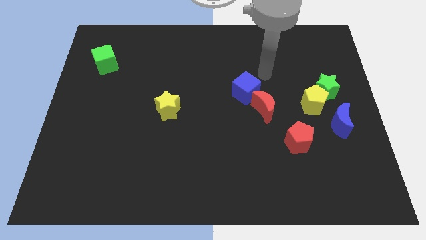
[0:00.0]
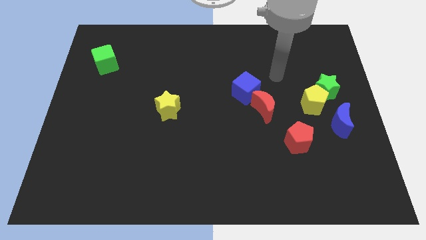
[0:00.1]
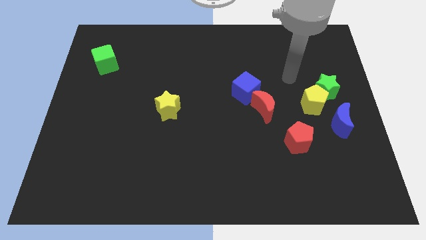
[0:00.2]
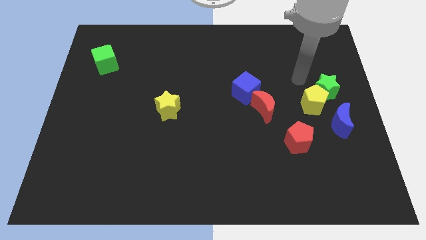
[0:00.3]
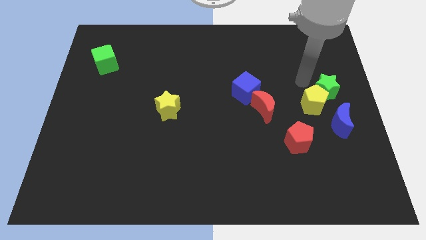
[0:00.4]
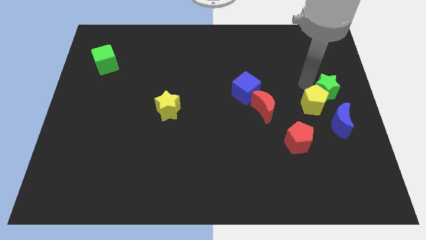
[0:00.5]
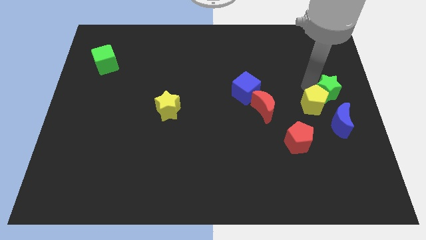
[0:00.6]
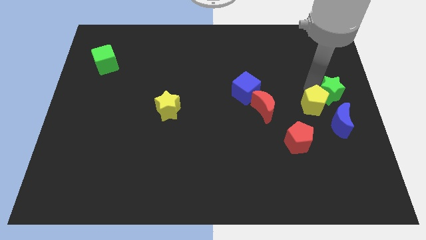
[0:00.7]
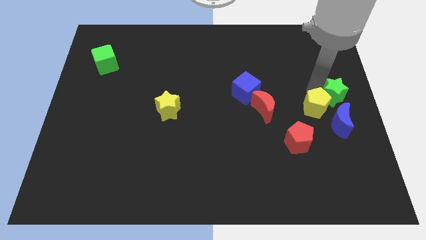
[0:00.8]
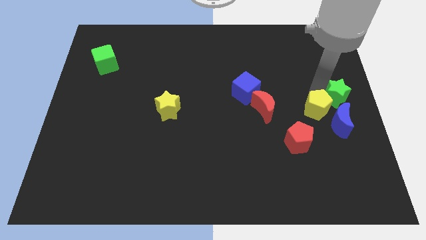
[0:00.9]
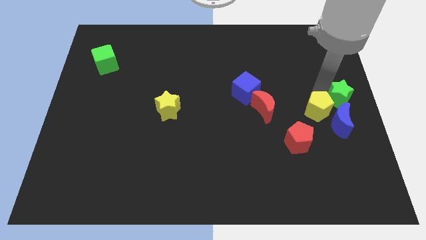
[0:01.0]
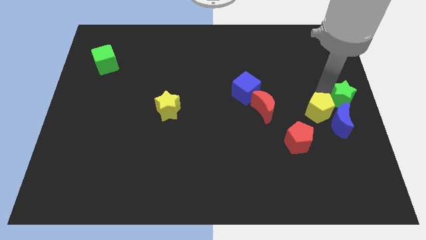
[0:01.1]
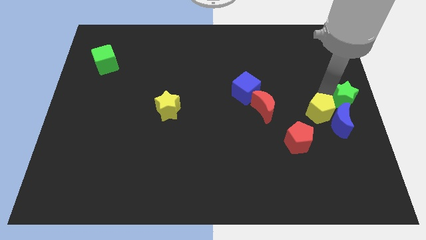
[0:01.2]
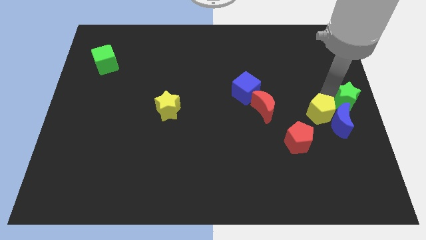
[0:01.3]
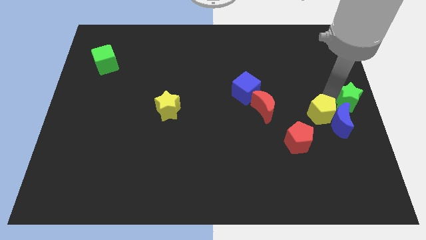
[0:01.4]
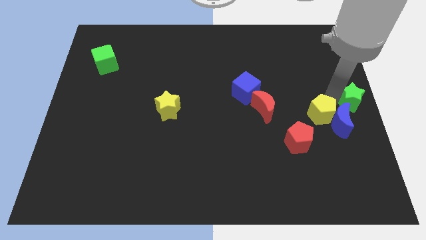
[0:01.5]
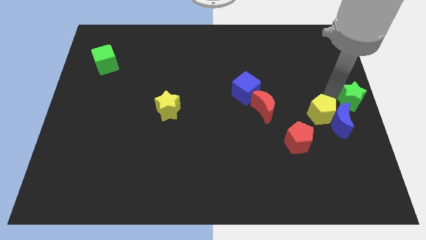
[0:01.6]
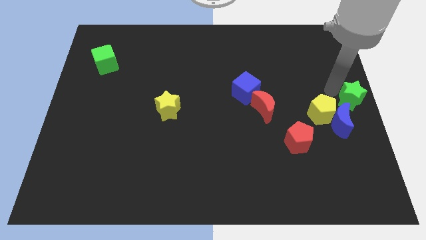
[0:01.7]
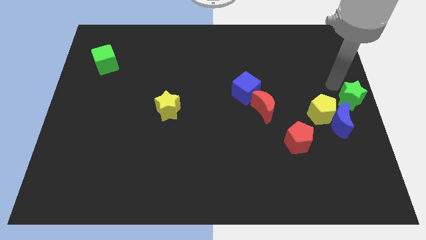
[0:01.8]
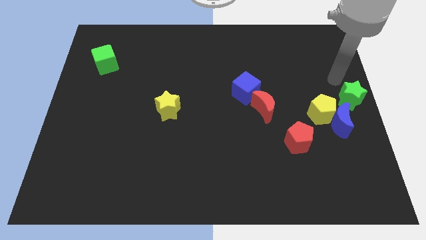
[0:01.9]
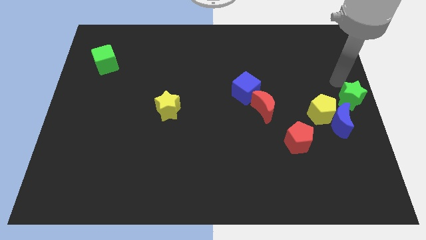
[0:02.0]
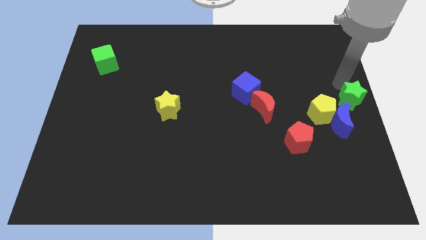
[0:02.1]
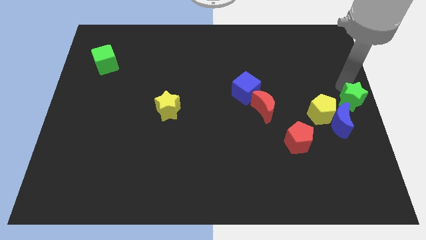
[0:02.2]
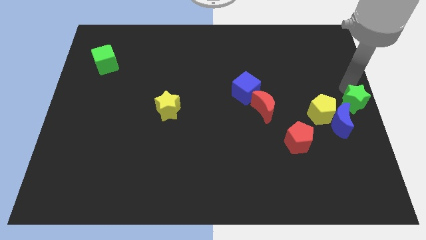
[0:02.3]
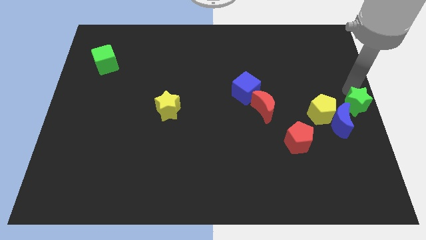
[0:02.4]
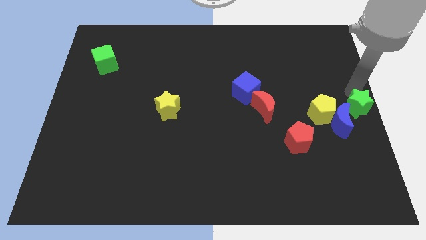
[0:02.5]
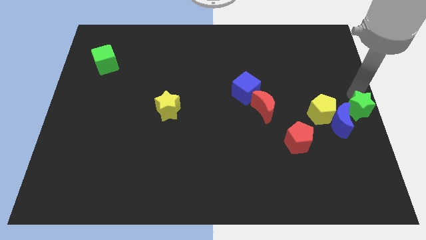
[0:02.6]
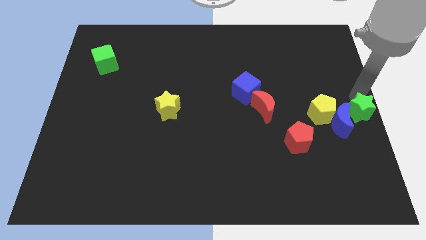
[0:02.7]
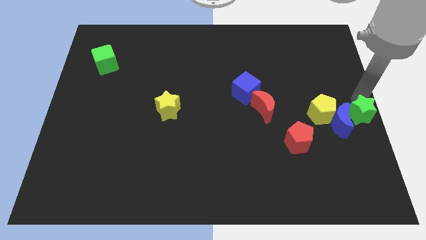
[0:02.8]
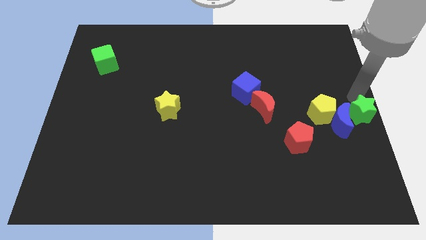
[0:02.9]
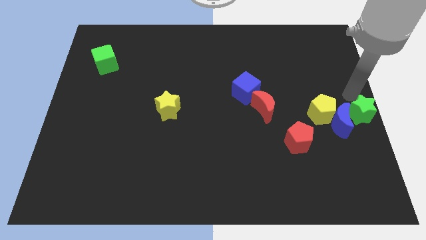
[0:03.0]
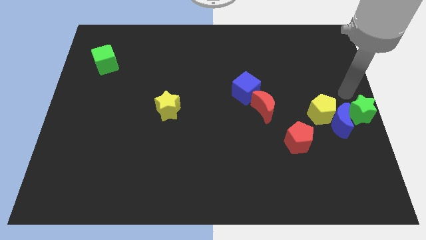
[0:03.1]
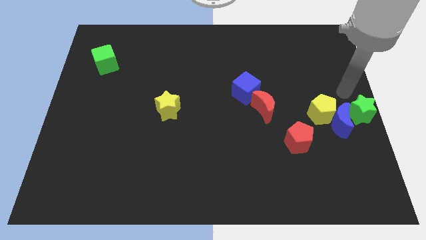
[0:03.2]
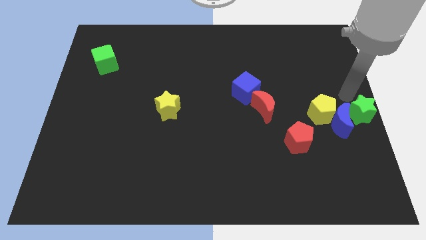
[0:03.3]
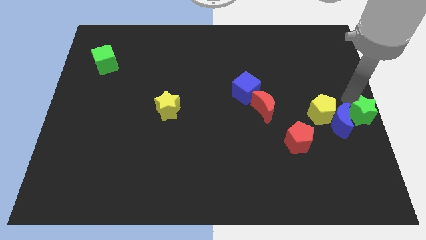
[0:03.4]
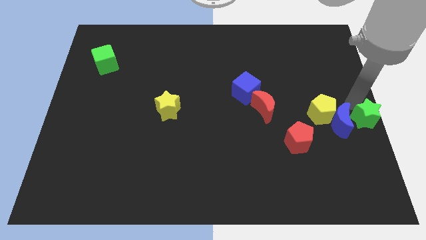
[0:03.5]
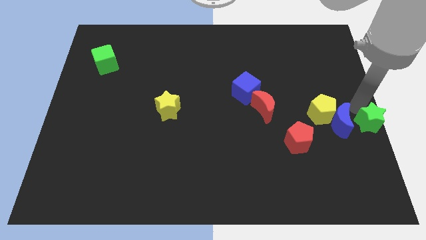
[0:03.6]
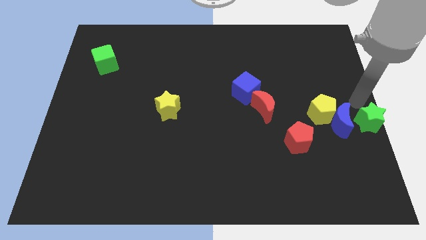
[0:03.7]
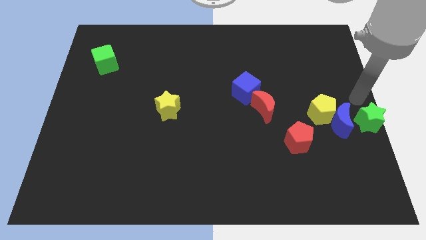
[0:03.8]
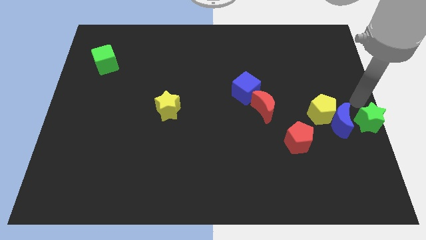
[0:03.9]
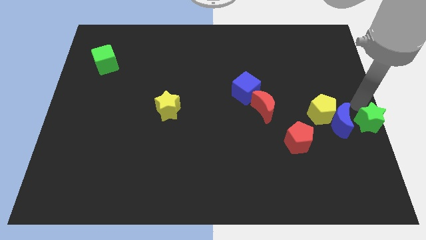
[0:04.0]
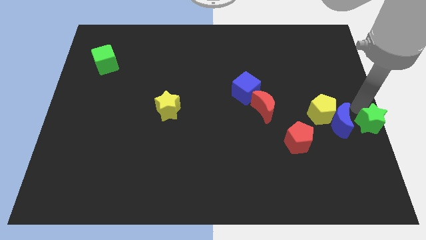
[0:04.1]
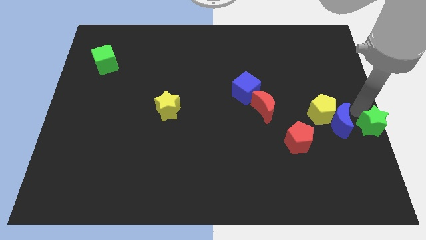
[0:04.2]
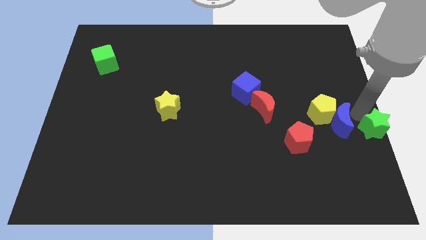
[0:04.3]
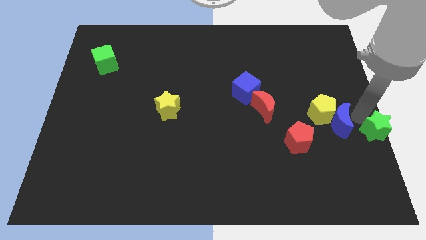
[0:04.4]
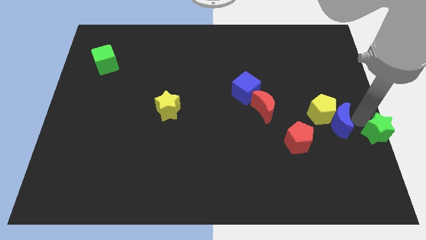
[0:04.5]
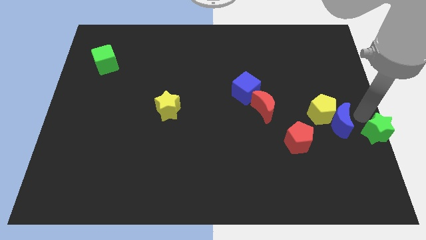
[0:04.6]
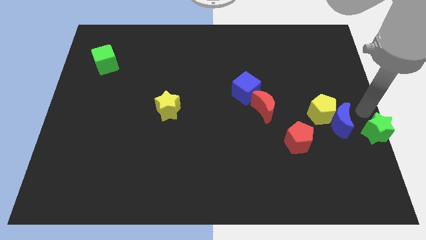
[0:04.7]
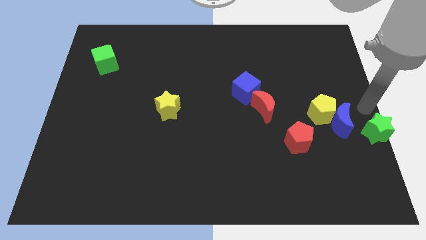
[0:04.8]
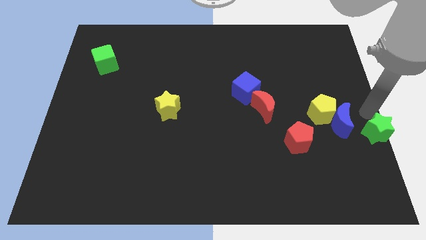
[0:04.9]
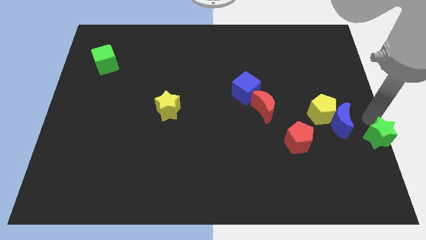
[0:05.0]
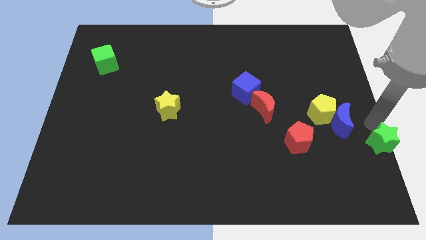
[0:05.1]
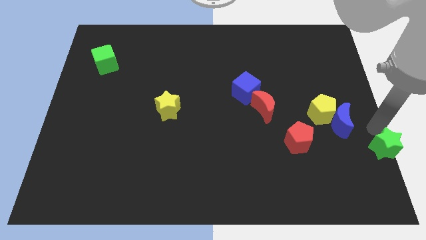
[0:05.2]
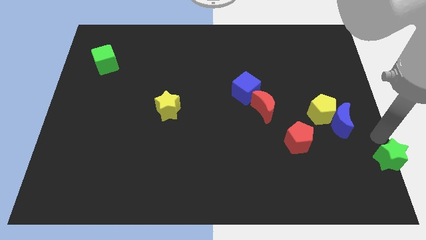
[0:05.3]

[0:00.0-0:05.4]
slide the green star to the bottom right of the board

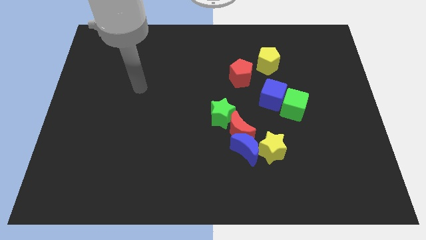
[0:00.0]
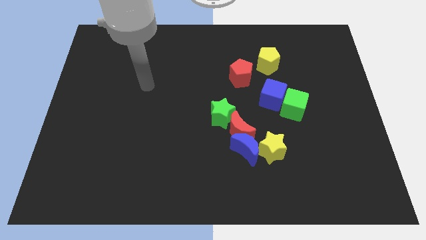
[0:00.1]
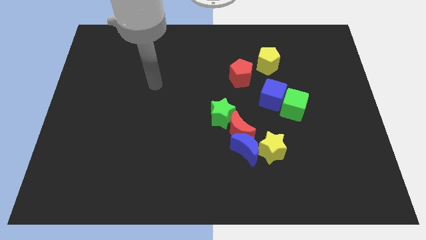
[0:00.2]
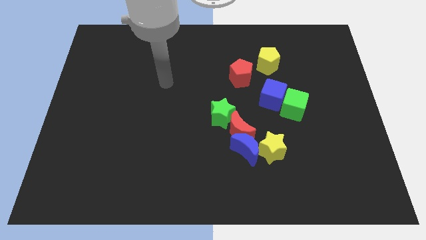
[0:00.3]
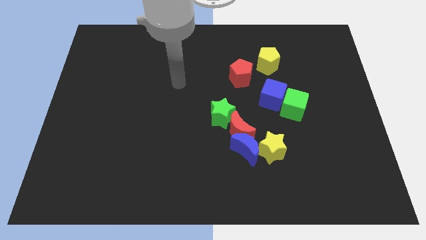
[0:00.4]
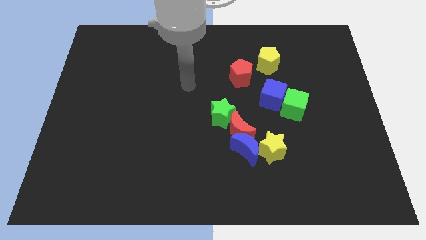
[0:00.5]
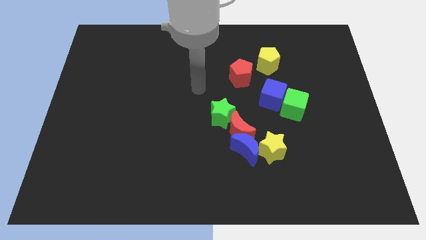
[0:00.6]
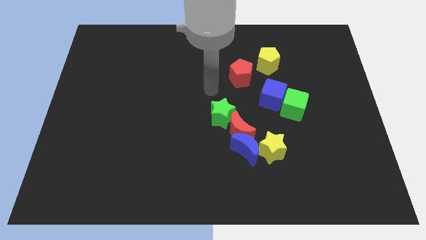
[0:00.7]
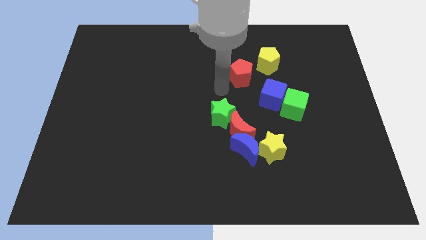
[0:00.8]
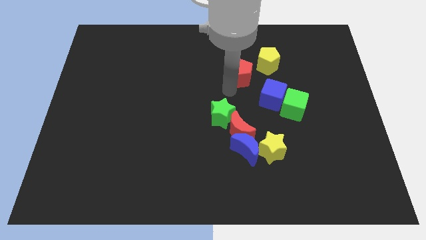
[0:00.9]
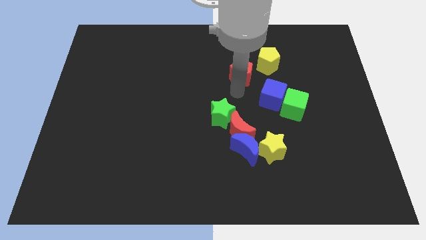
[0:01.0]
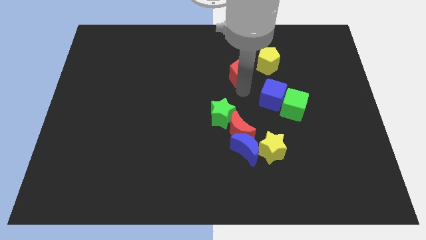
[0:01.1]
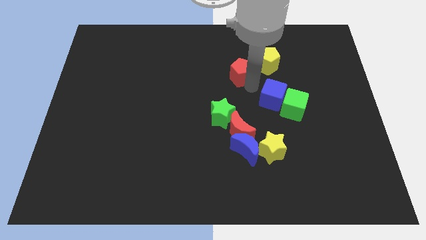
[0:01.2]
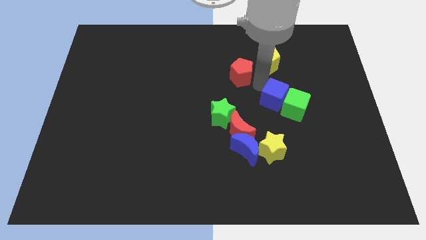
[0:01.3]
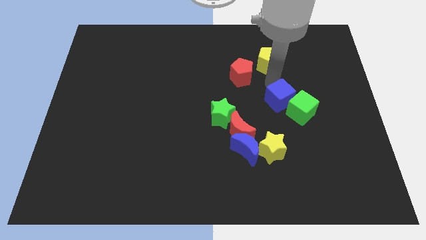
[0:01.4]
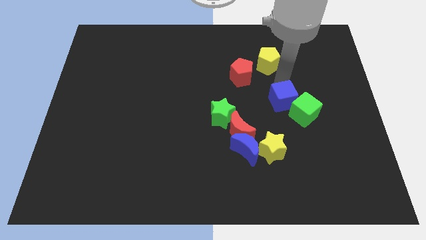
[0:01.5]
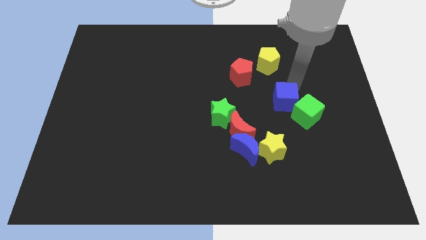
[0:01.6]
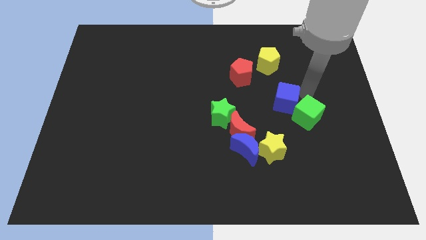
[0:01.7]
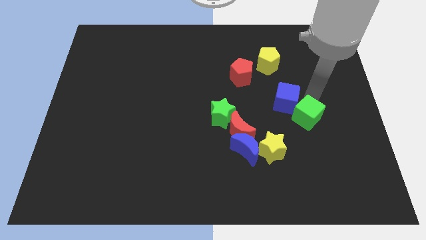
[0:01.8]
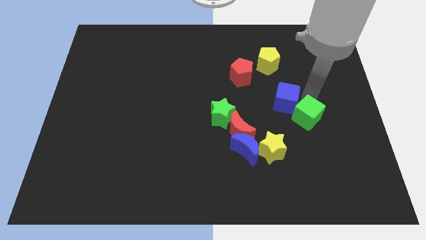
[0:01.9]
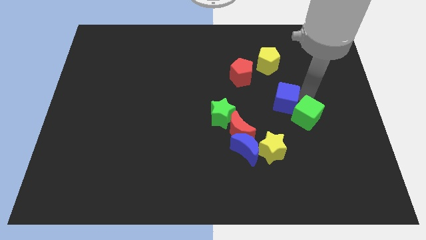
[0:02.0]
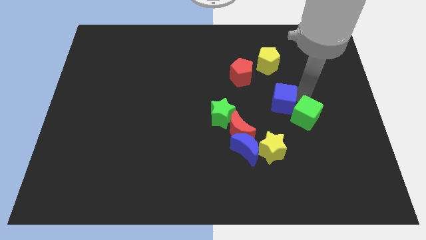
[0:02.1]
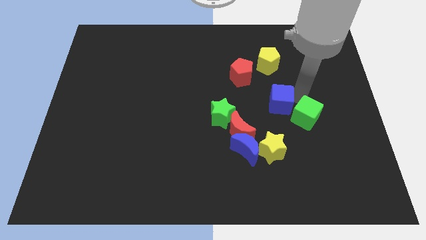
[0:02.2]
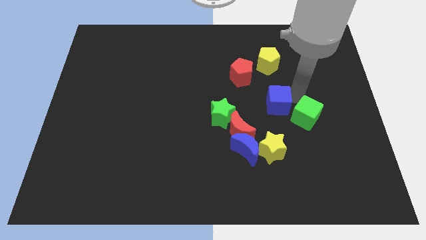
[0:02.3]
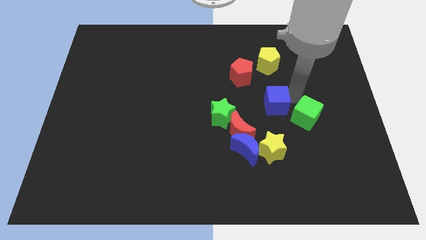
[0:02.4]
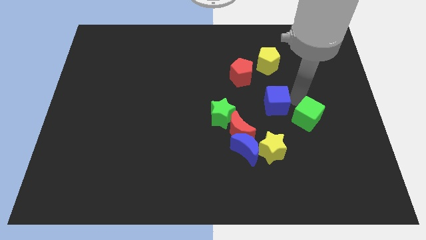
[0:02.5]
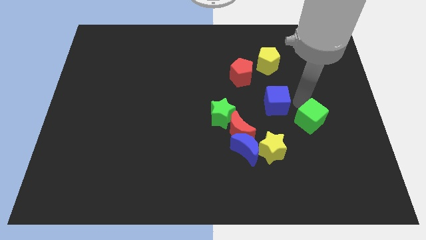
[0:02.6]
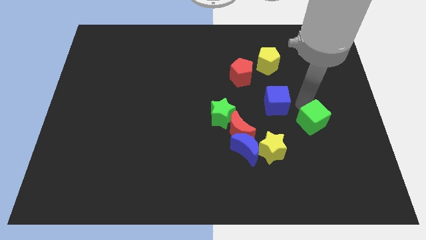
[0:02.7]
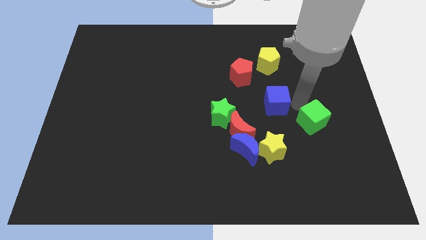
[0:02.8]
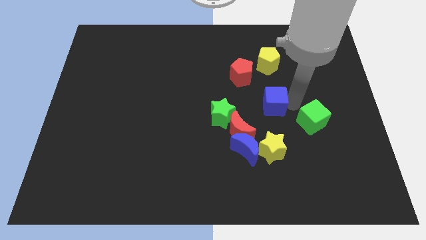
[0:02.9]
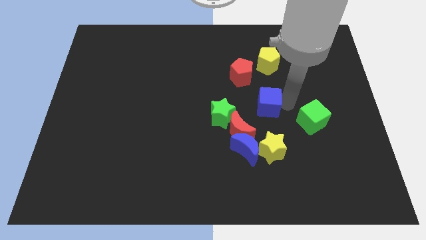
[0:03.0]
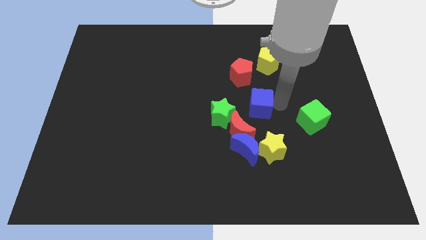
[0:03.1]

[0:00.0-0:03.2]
push the blue cube to the center
